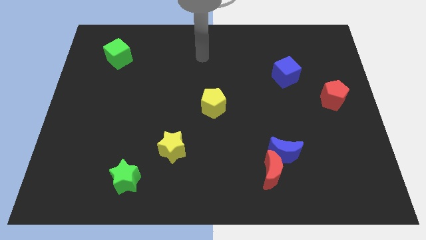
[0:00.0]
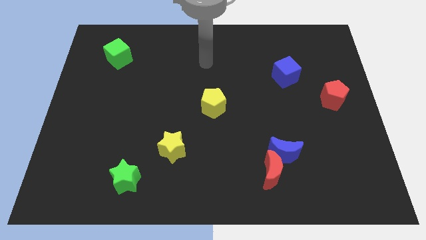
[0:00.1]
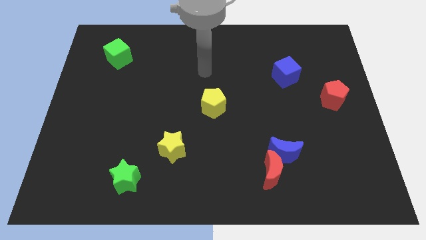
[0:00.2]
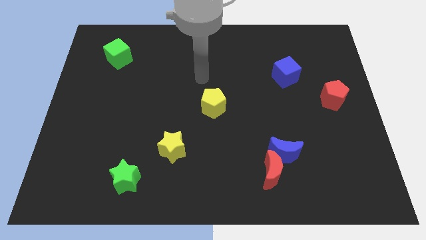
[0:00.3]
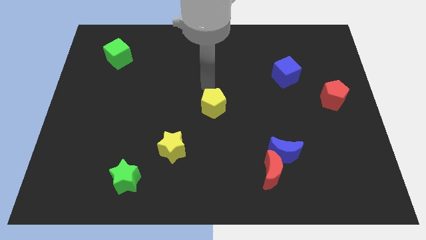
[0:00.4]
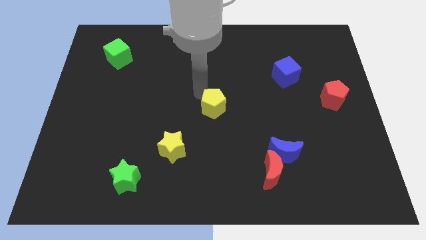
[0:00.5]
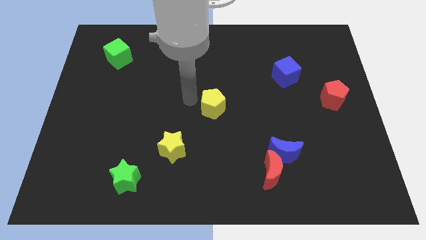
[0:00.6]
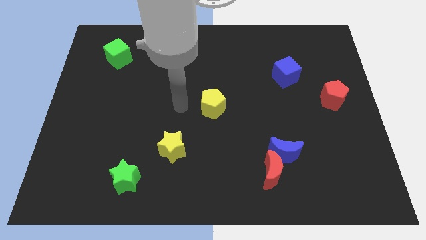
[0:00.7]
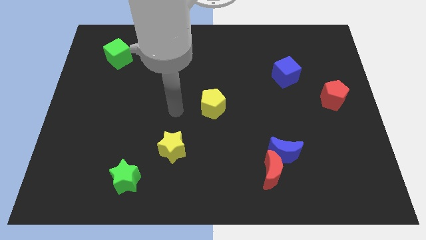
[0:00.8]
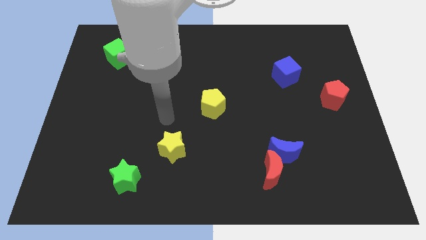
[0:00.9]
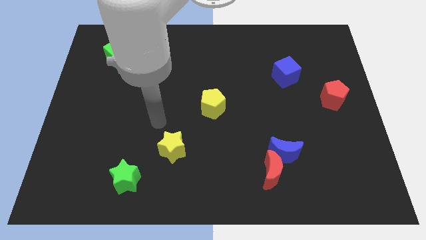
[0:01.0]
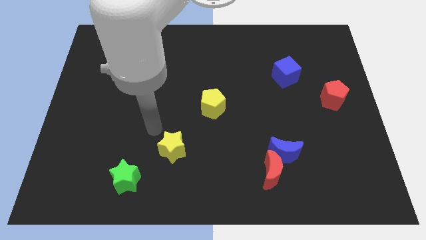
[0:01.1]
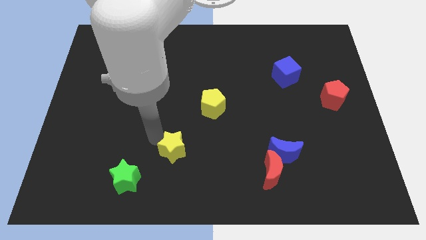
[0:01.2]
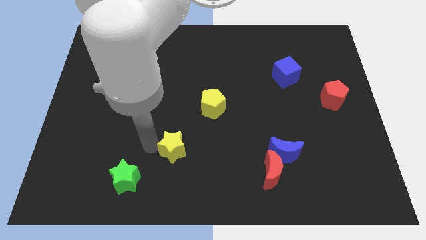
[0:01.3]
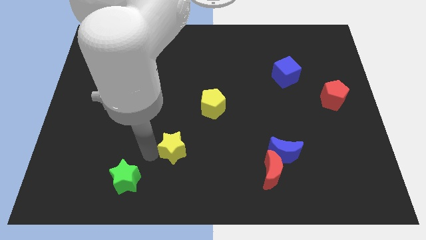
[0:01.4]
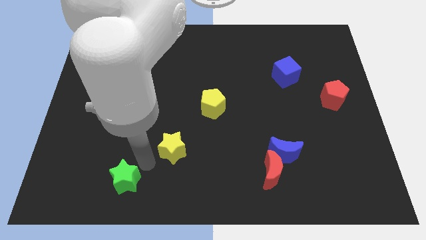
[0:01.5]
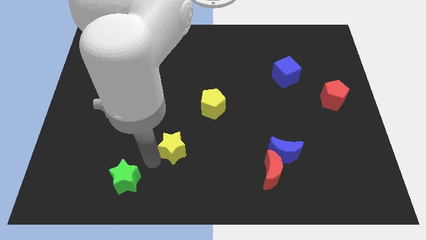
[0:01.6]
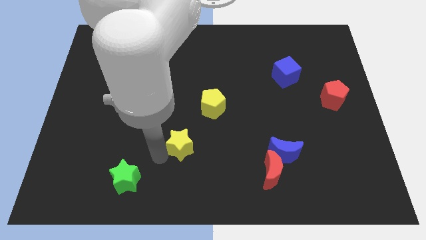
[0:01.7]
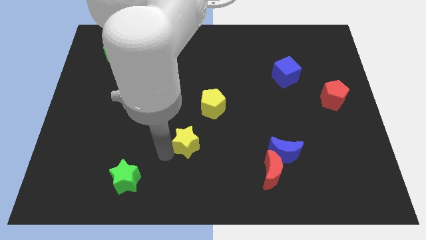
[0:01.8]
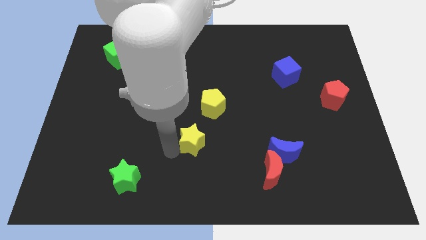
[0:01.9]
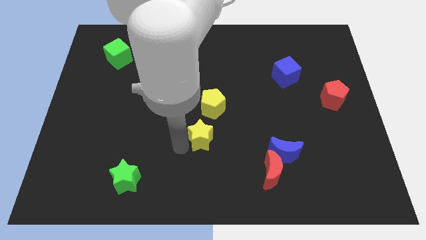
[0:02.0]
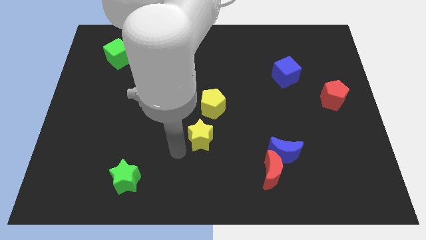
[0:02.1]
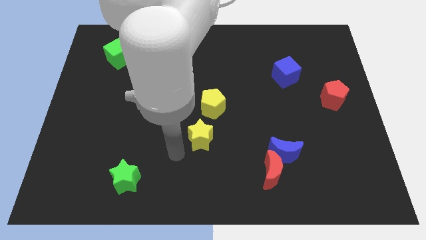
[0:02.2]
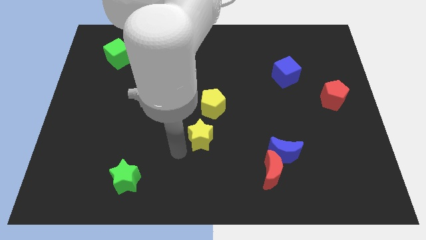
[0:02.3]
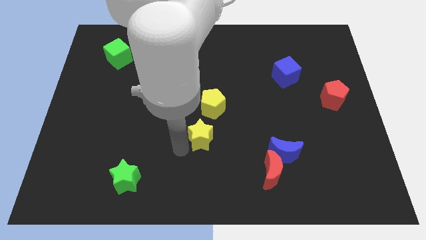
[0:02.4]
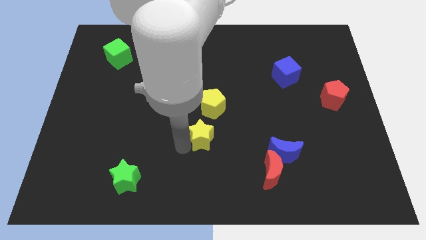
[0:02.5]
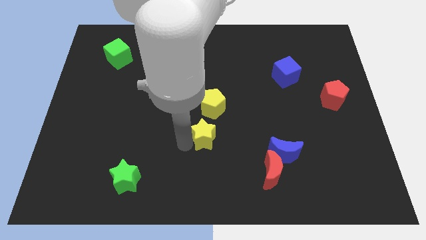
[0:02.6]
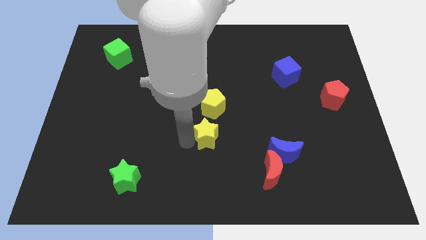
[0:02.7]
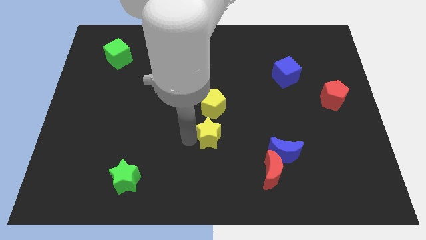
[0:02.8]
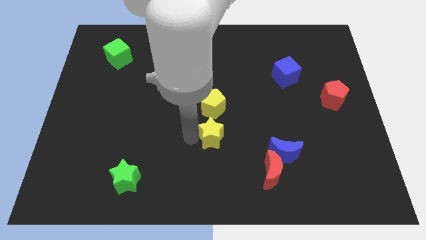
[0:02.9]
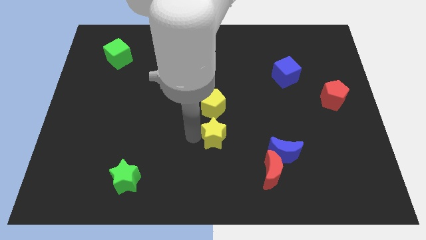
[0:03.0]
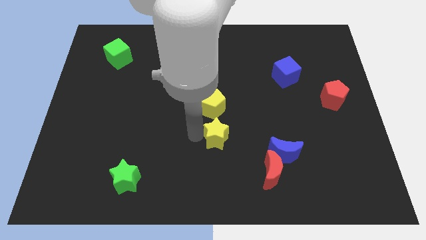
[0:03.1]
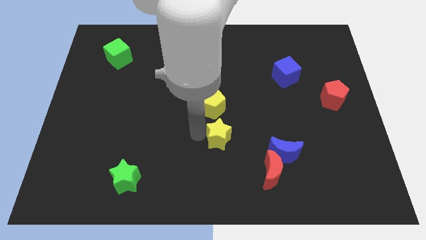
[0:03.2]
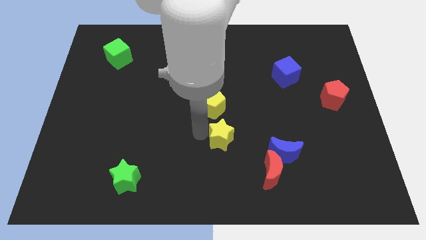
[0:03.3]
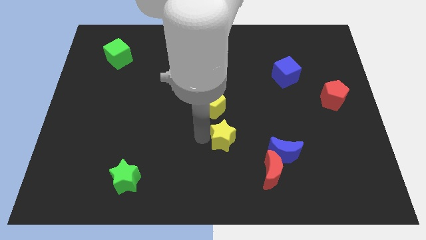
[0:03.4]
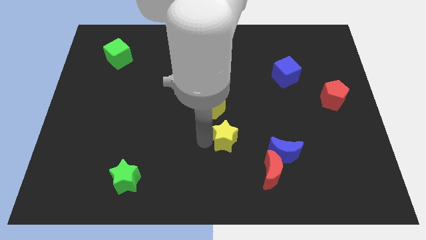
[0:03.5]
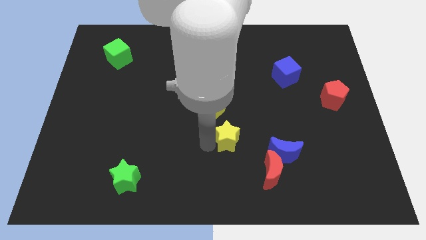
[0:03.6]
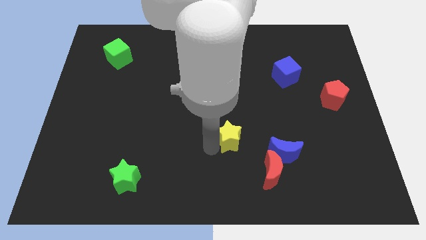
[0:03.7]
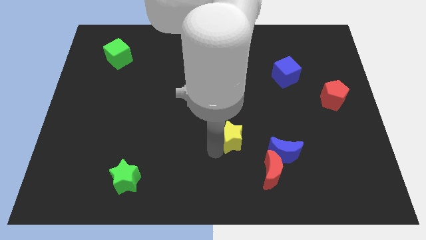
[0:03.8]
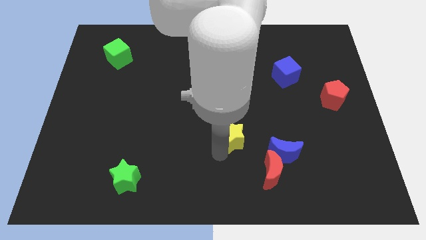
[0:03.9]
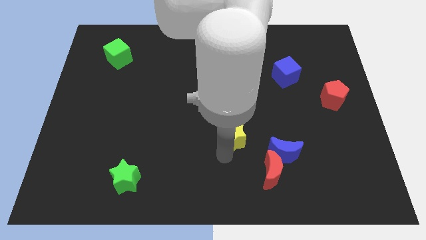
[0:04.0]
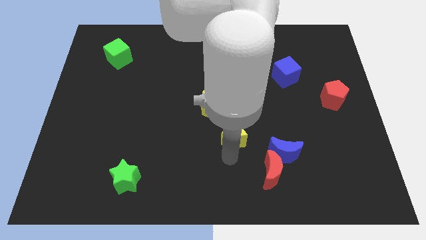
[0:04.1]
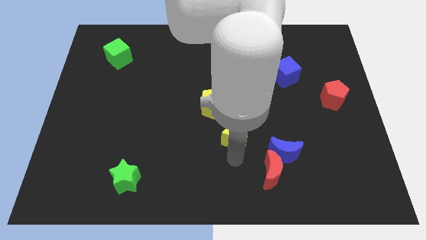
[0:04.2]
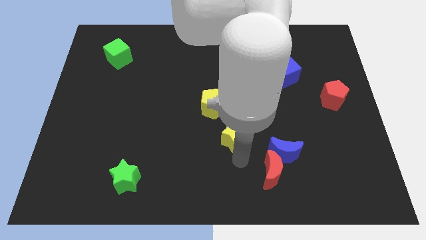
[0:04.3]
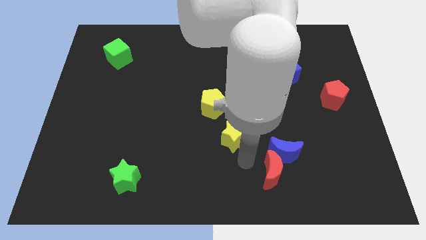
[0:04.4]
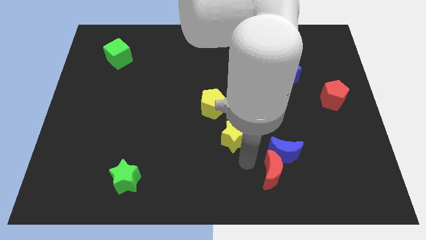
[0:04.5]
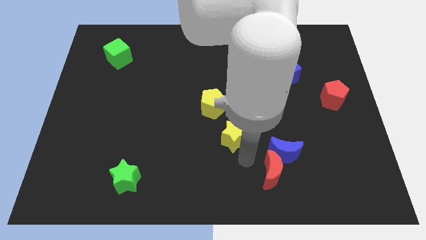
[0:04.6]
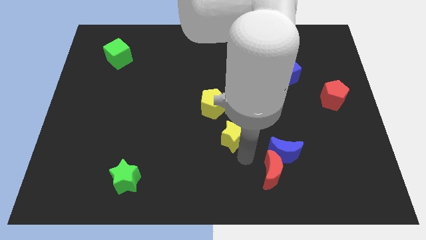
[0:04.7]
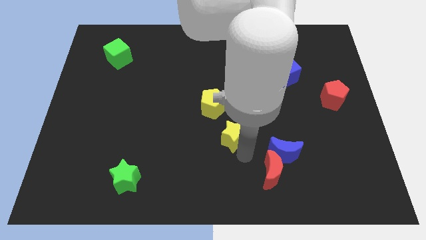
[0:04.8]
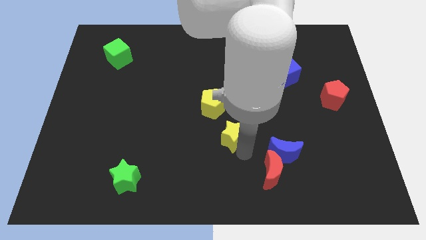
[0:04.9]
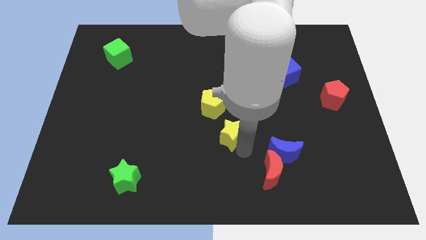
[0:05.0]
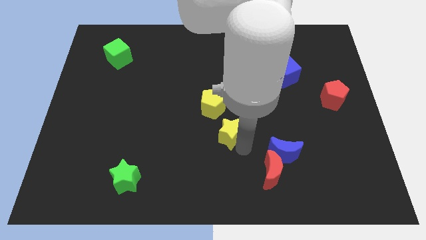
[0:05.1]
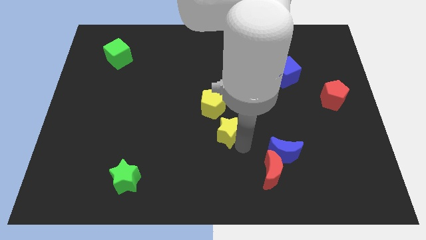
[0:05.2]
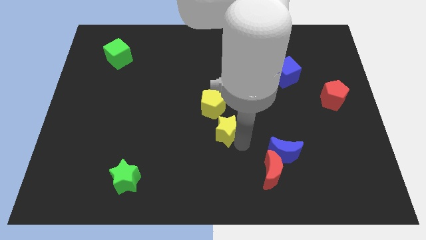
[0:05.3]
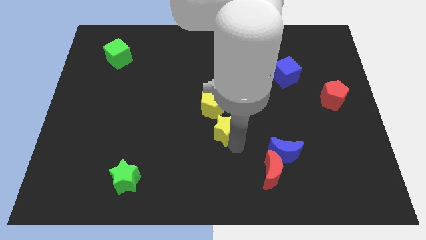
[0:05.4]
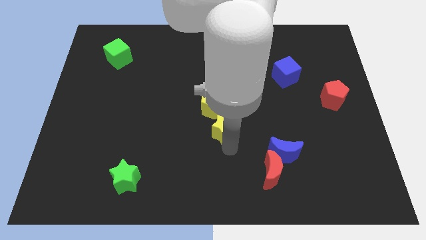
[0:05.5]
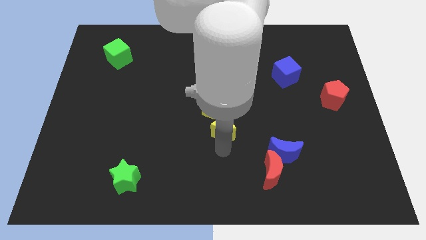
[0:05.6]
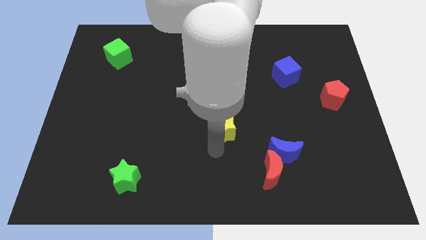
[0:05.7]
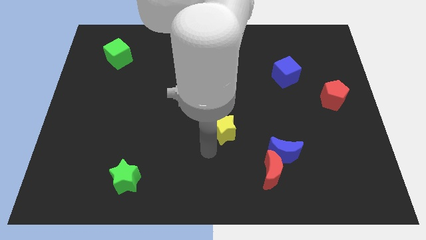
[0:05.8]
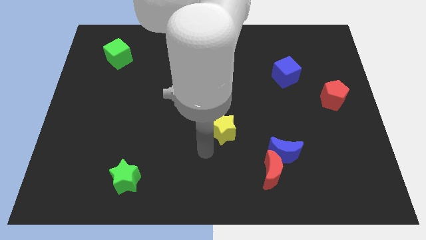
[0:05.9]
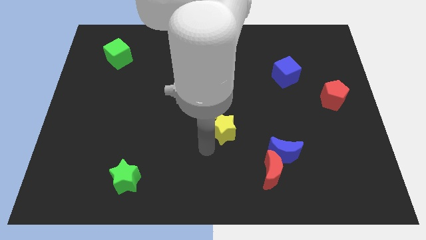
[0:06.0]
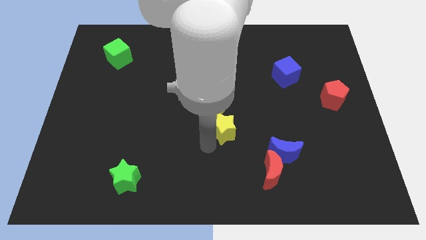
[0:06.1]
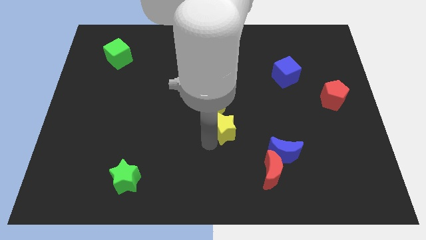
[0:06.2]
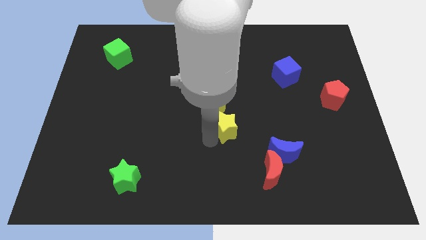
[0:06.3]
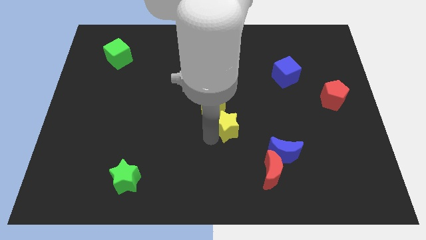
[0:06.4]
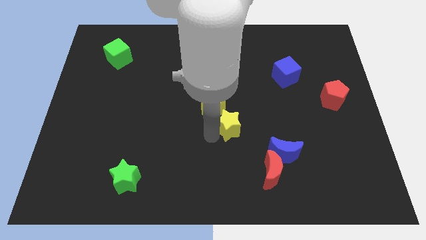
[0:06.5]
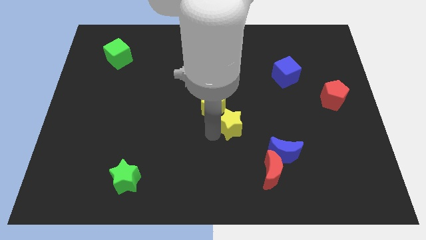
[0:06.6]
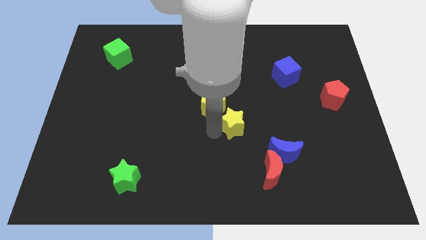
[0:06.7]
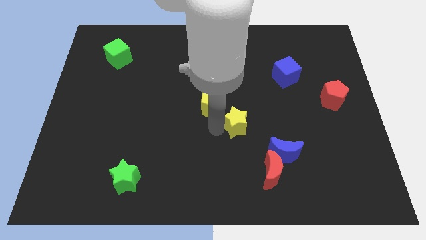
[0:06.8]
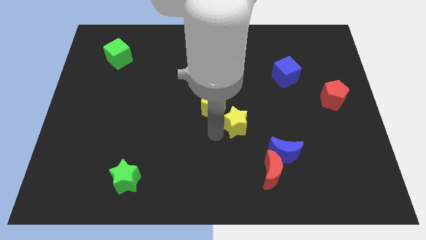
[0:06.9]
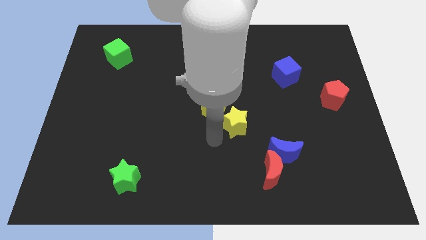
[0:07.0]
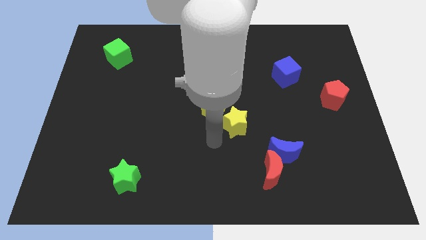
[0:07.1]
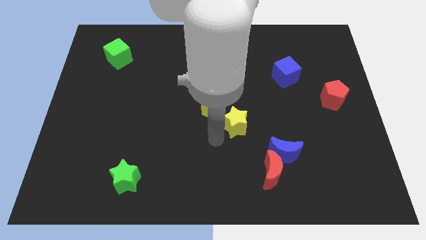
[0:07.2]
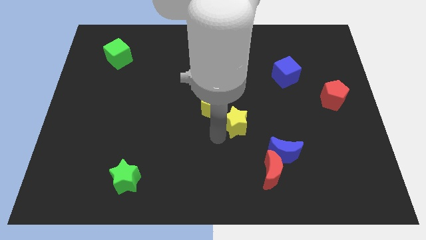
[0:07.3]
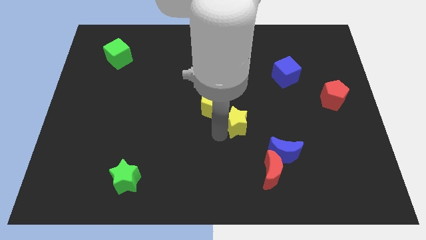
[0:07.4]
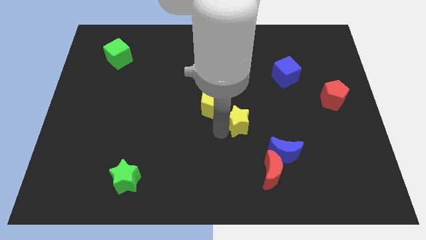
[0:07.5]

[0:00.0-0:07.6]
put the yellow star right of the yellow pentagon
